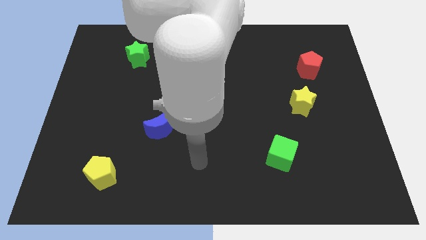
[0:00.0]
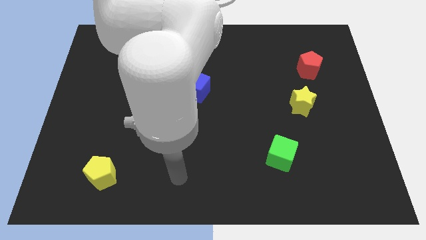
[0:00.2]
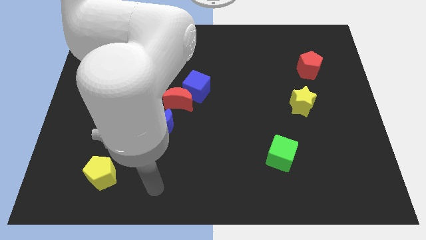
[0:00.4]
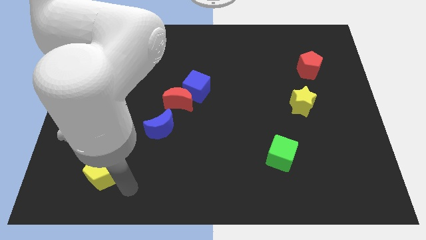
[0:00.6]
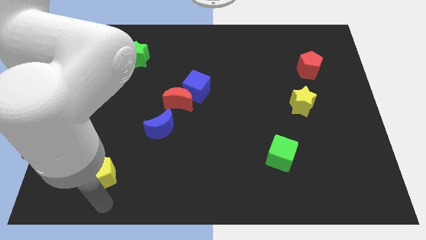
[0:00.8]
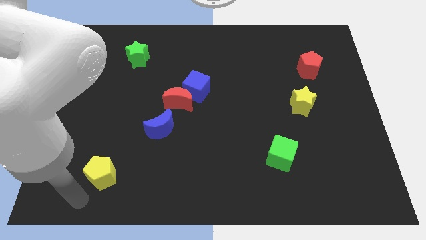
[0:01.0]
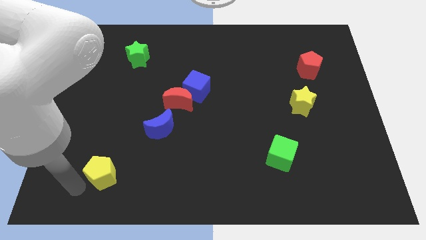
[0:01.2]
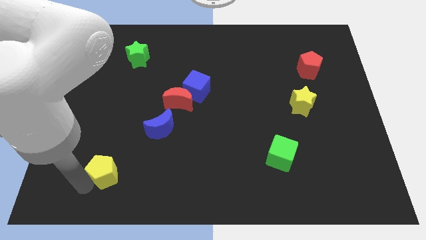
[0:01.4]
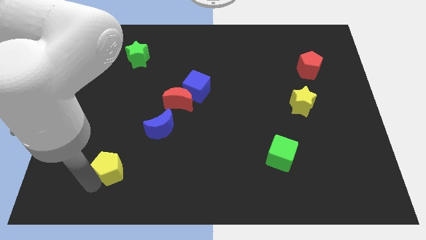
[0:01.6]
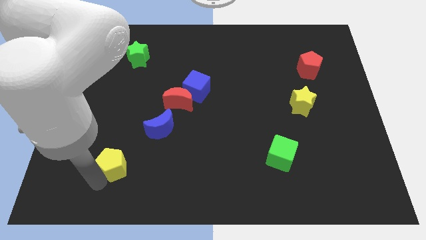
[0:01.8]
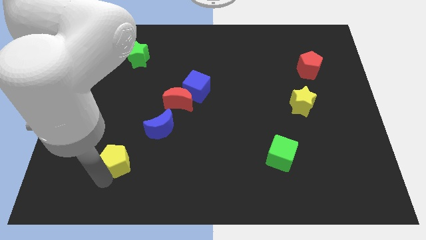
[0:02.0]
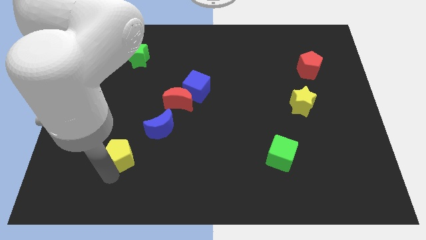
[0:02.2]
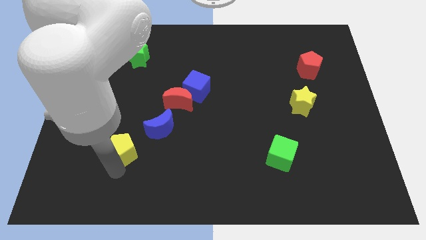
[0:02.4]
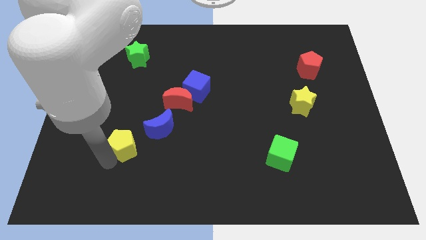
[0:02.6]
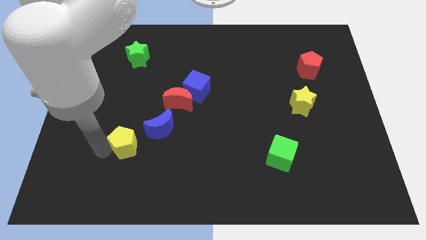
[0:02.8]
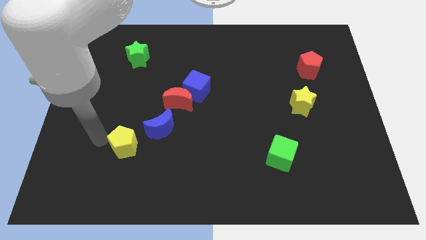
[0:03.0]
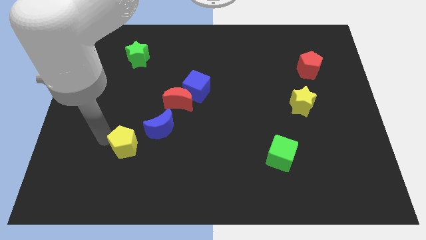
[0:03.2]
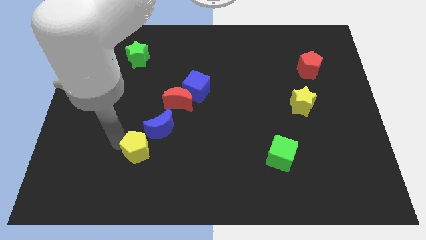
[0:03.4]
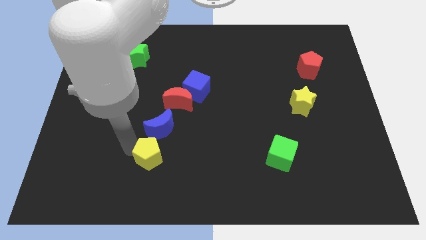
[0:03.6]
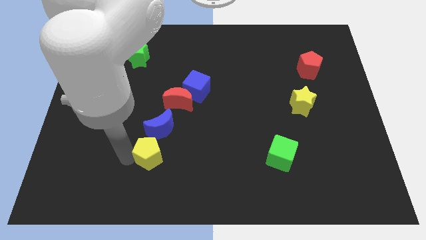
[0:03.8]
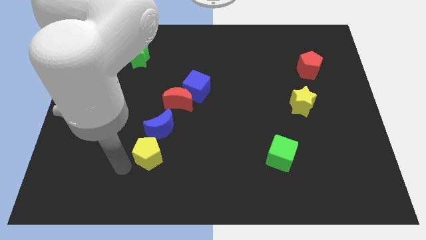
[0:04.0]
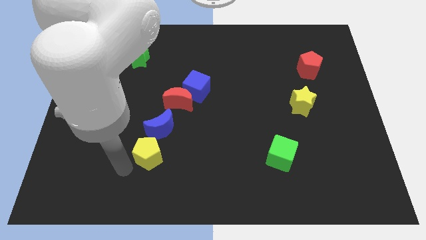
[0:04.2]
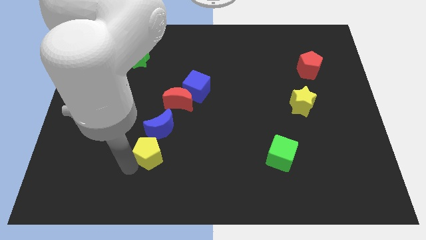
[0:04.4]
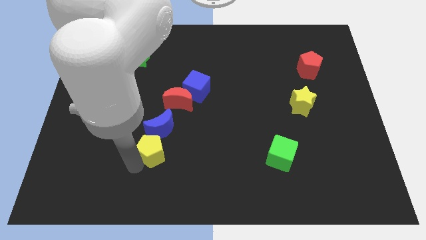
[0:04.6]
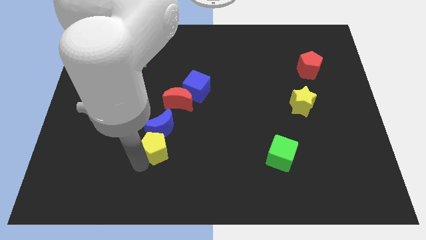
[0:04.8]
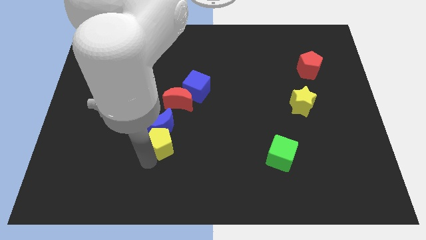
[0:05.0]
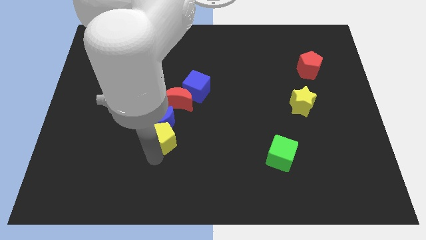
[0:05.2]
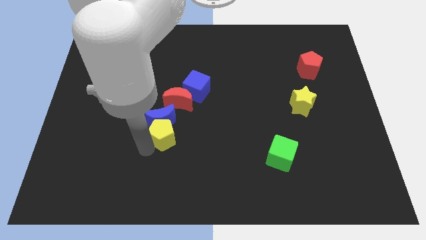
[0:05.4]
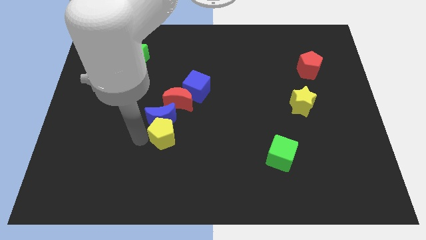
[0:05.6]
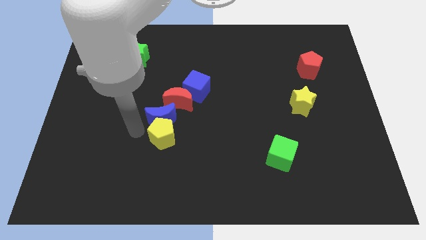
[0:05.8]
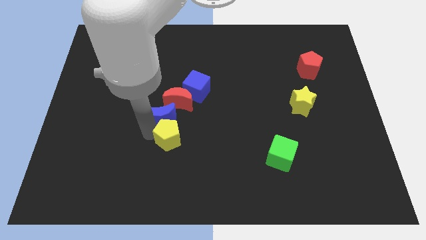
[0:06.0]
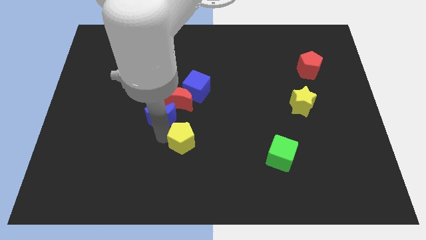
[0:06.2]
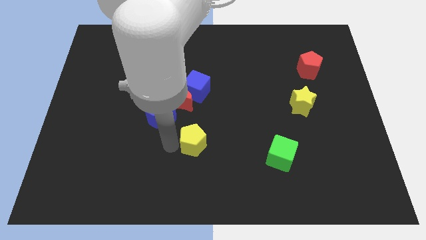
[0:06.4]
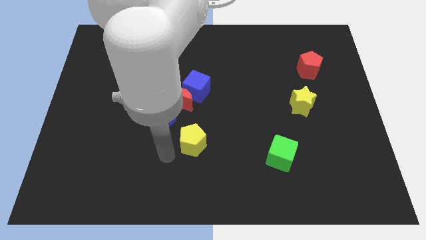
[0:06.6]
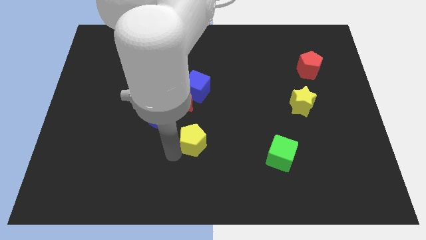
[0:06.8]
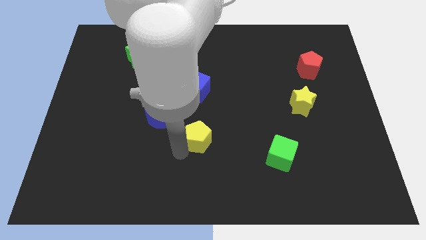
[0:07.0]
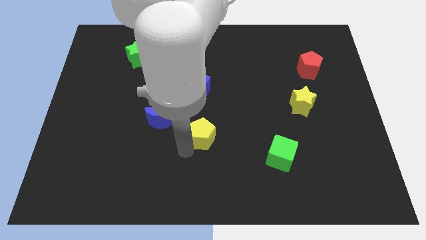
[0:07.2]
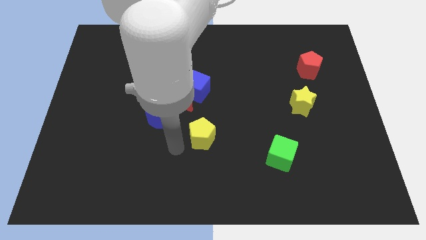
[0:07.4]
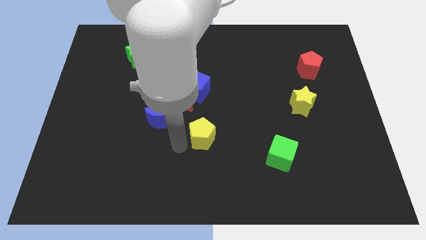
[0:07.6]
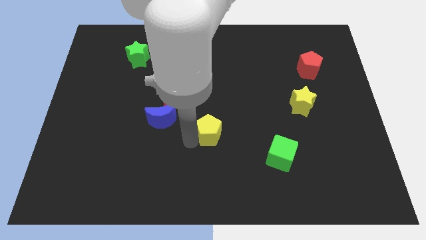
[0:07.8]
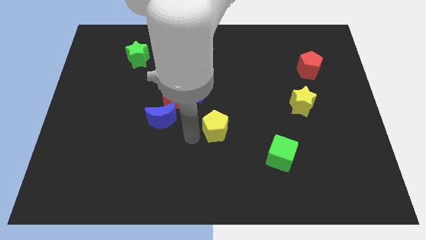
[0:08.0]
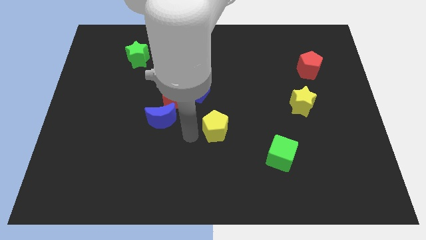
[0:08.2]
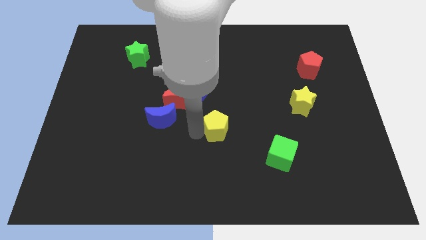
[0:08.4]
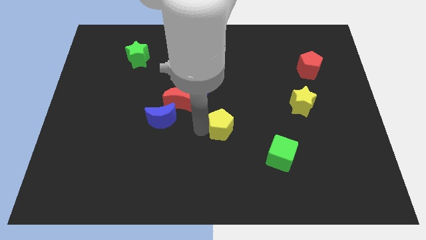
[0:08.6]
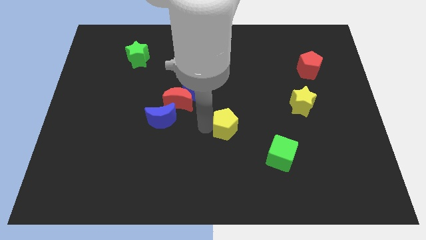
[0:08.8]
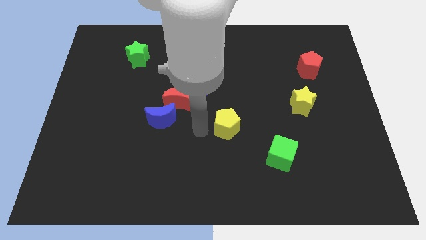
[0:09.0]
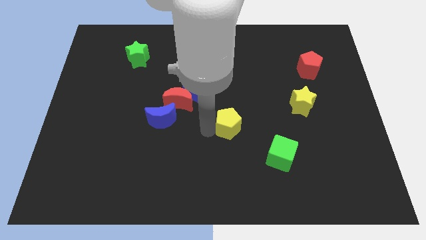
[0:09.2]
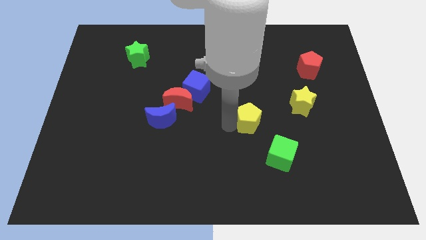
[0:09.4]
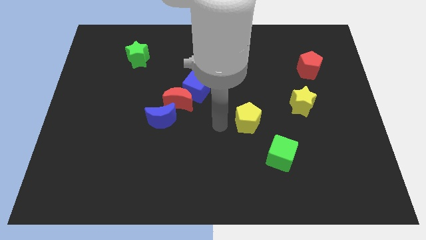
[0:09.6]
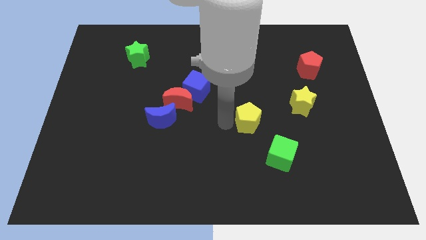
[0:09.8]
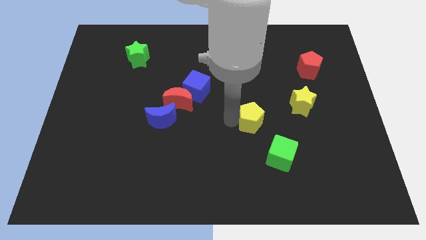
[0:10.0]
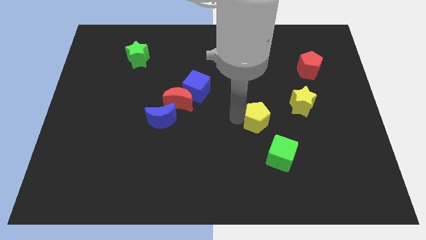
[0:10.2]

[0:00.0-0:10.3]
push the yellow pentagon to the top of the green cube

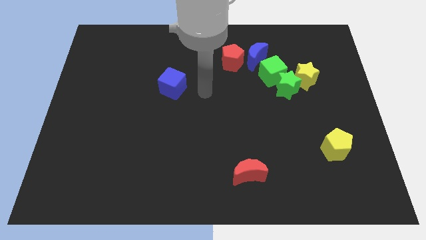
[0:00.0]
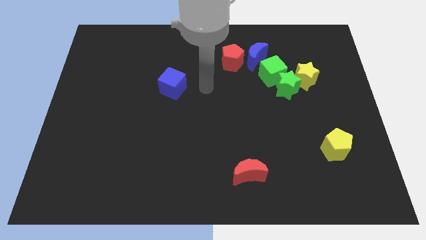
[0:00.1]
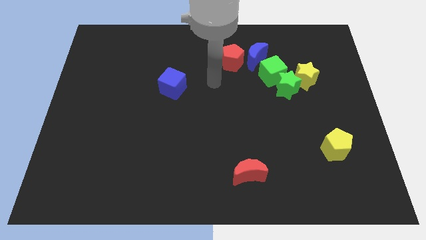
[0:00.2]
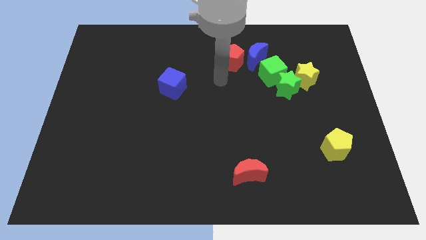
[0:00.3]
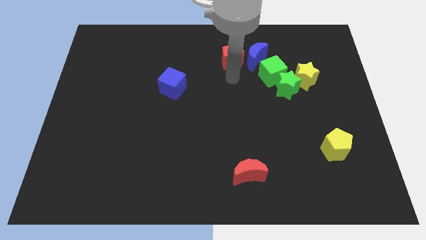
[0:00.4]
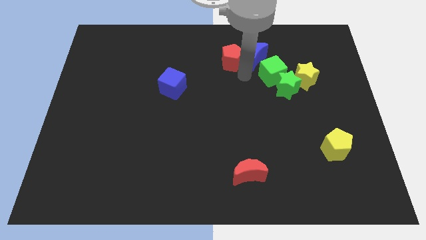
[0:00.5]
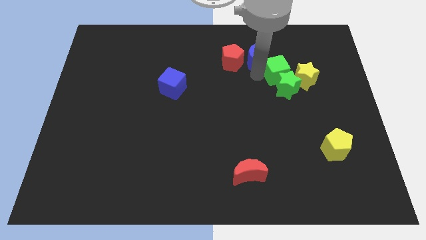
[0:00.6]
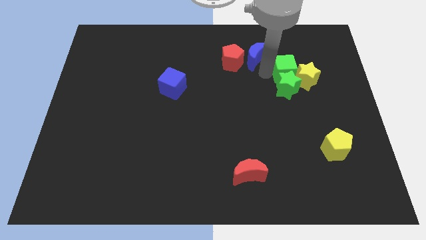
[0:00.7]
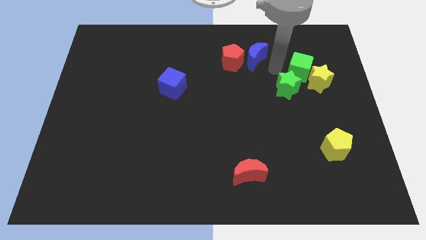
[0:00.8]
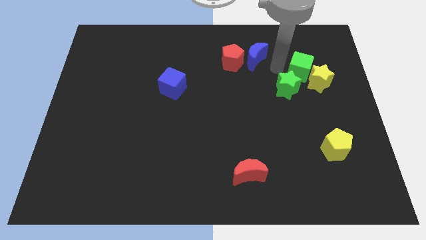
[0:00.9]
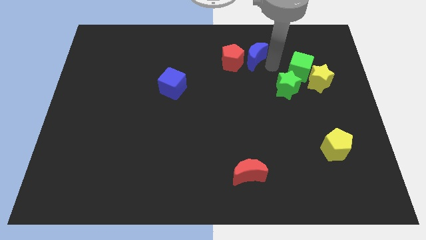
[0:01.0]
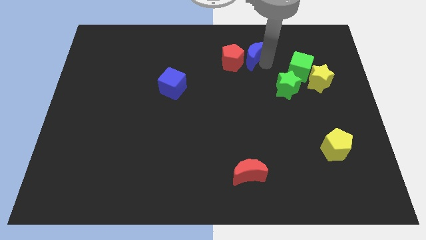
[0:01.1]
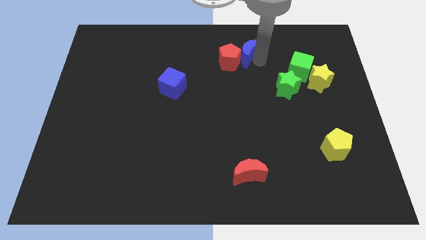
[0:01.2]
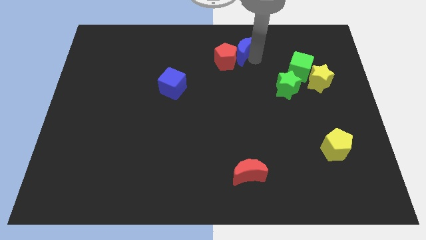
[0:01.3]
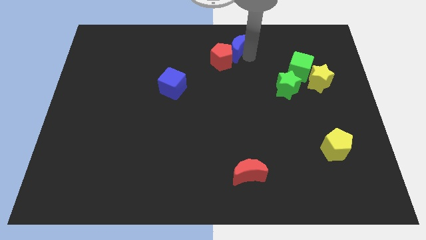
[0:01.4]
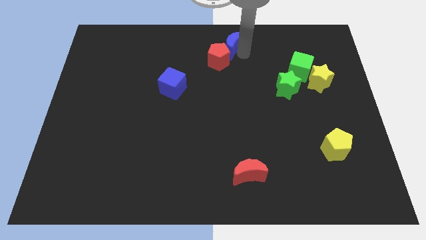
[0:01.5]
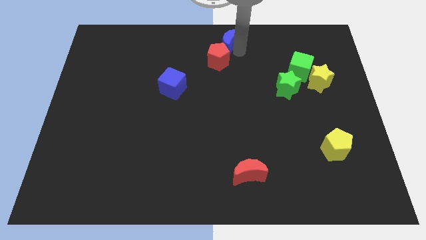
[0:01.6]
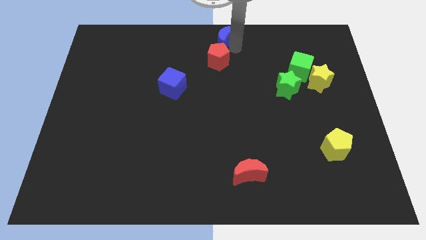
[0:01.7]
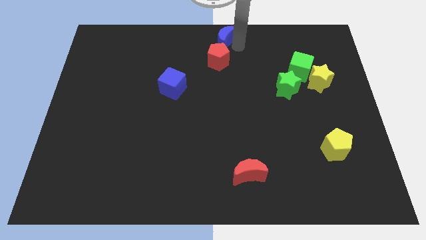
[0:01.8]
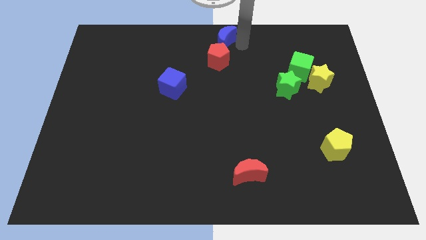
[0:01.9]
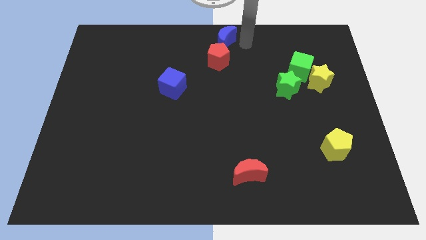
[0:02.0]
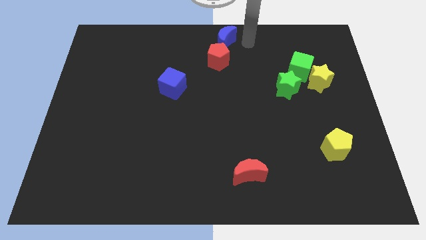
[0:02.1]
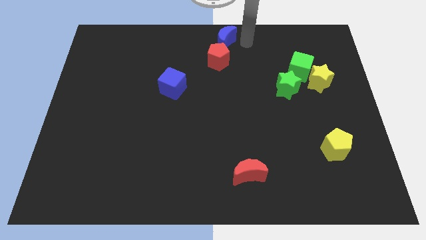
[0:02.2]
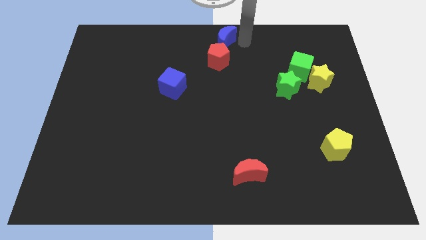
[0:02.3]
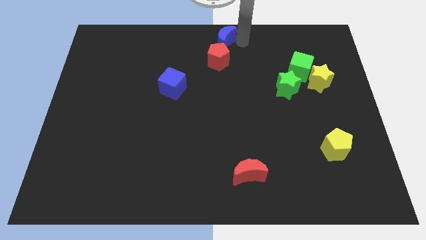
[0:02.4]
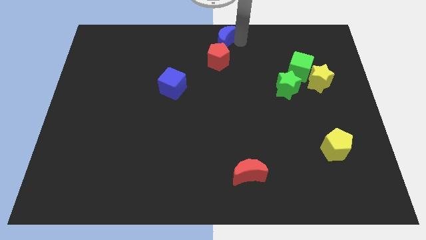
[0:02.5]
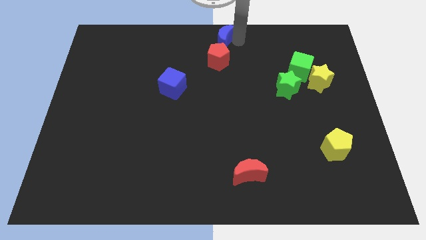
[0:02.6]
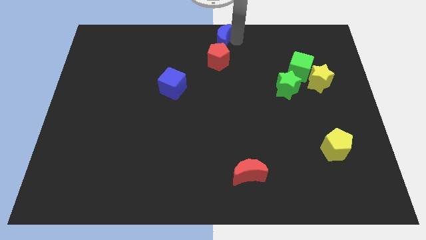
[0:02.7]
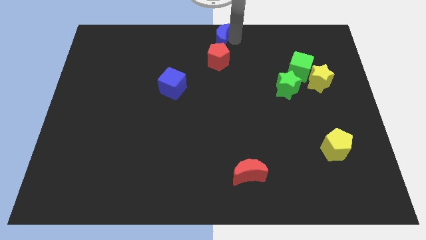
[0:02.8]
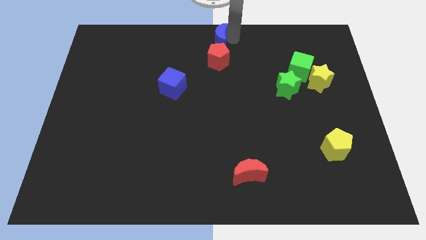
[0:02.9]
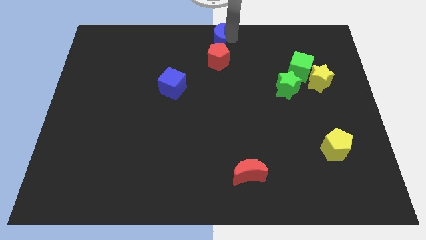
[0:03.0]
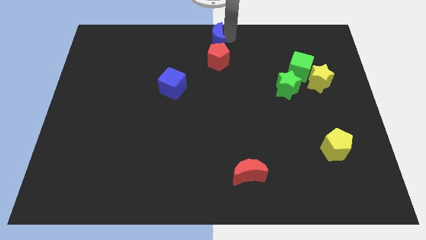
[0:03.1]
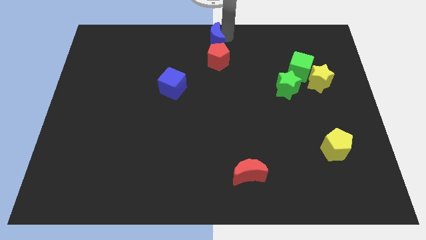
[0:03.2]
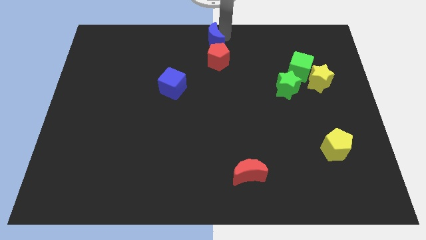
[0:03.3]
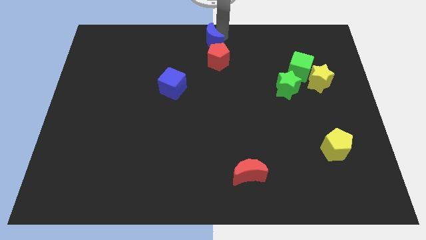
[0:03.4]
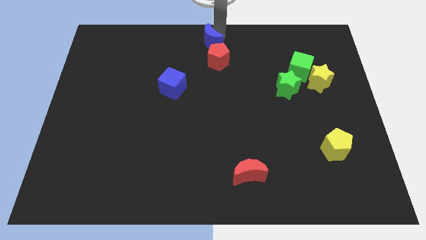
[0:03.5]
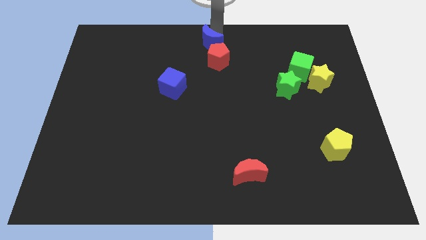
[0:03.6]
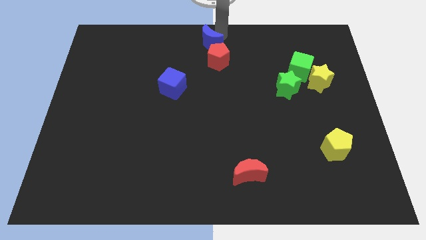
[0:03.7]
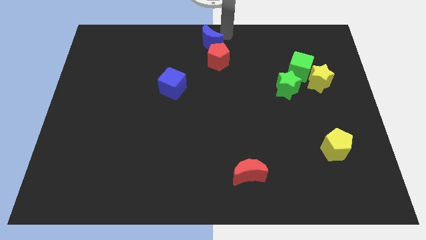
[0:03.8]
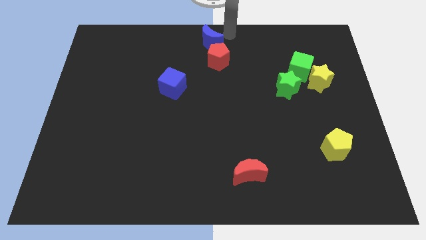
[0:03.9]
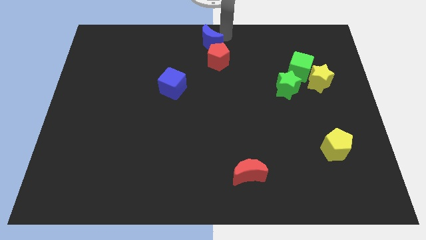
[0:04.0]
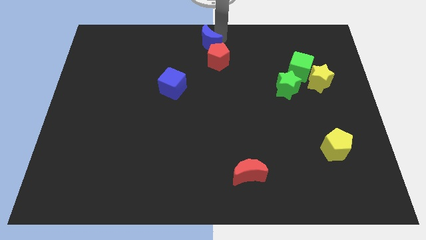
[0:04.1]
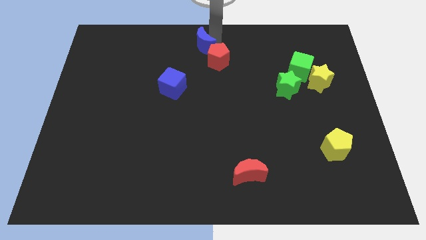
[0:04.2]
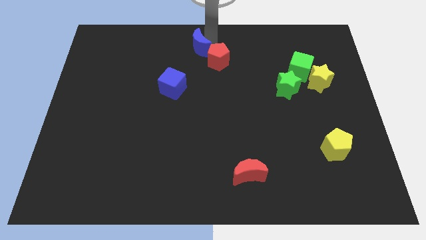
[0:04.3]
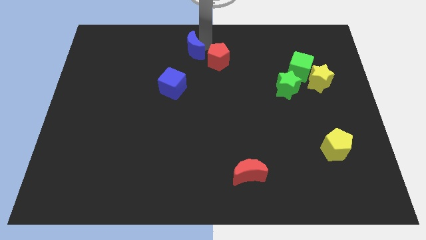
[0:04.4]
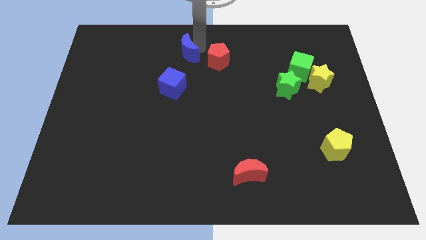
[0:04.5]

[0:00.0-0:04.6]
push the blue moon above the blue cube
